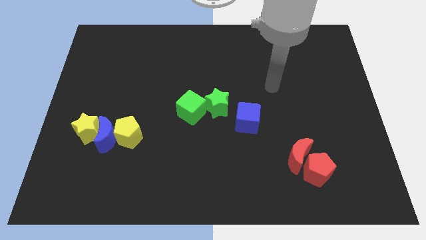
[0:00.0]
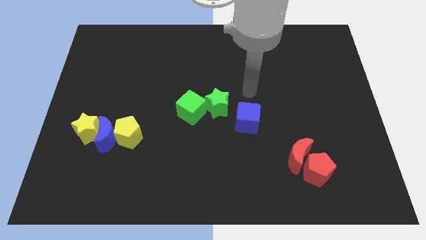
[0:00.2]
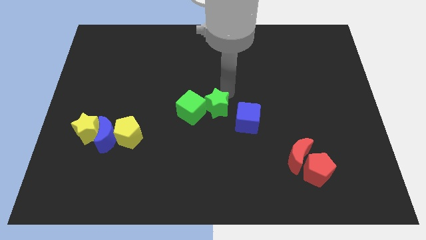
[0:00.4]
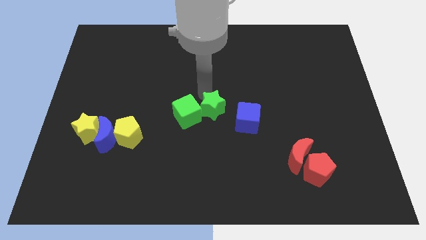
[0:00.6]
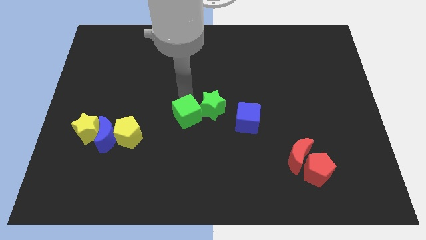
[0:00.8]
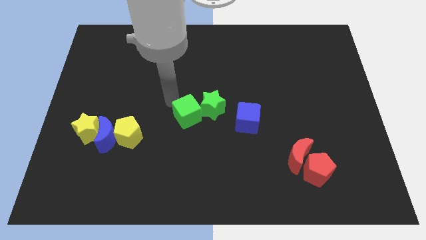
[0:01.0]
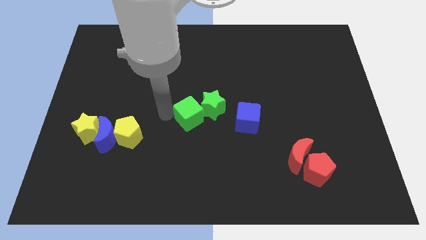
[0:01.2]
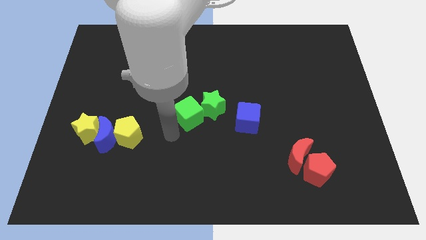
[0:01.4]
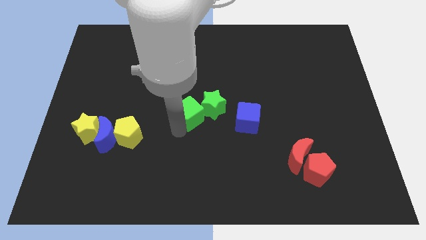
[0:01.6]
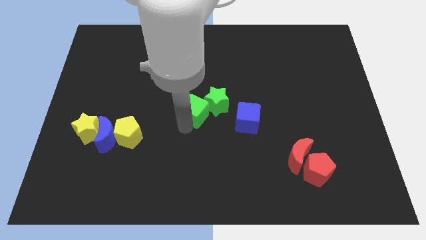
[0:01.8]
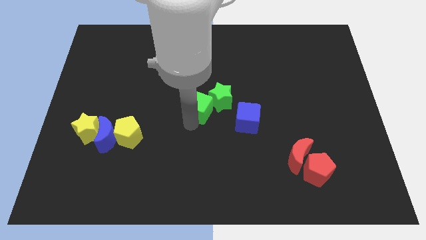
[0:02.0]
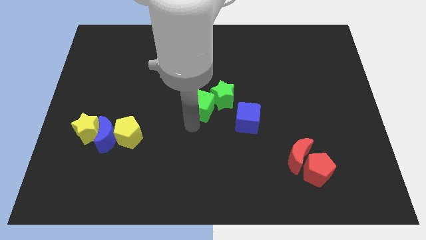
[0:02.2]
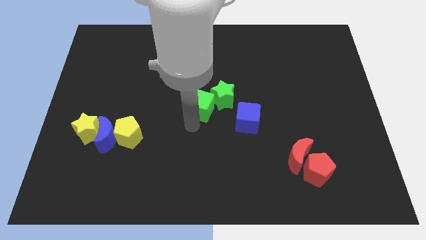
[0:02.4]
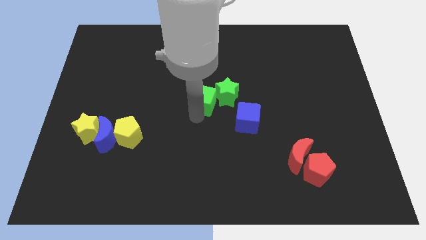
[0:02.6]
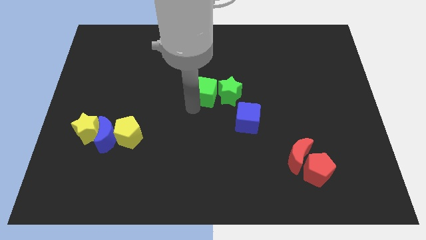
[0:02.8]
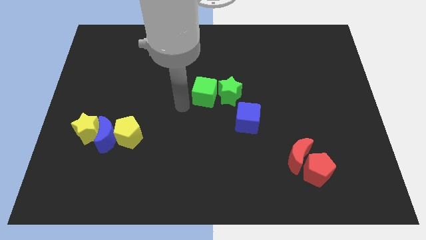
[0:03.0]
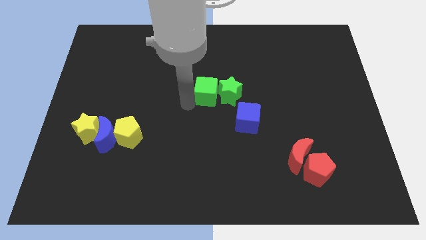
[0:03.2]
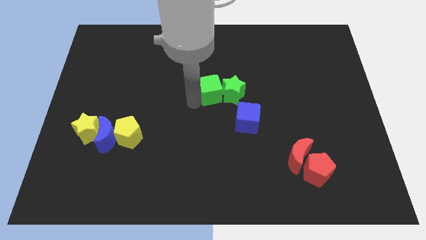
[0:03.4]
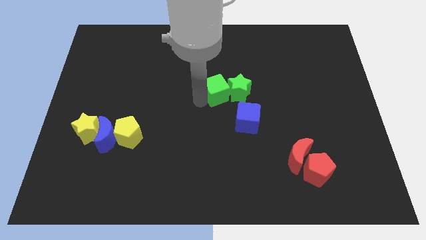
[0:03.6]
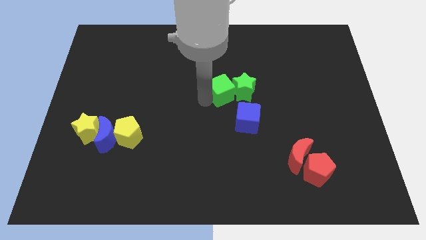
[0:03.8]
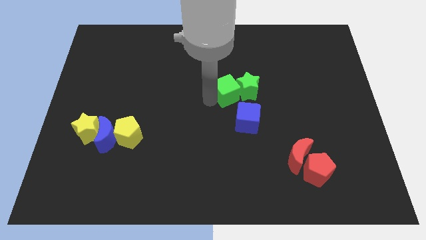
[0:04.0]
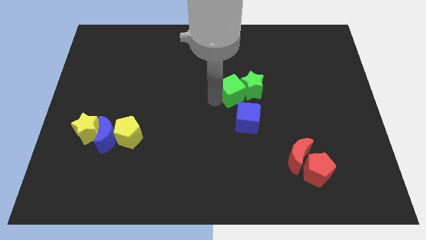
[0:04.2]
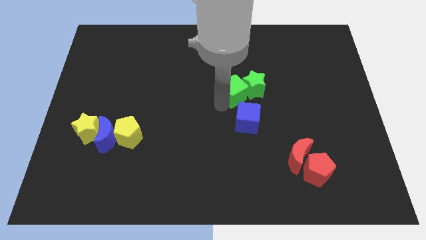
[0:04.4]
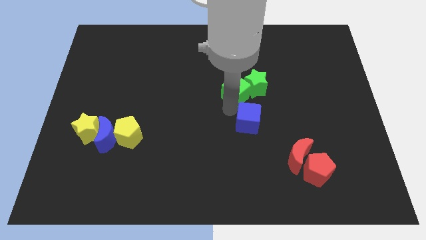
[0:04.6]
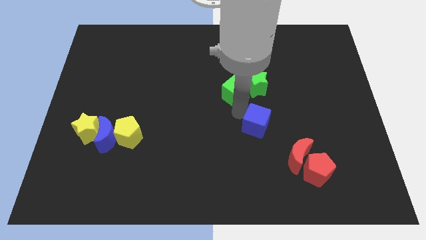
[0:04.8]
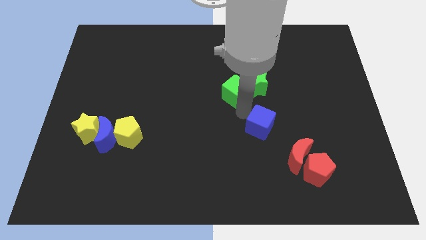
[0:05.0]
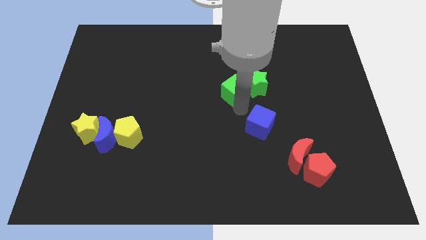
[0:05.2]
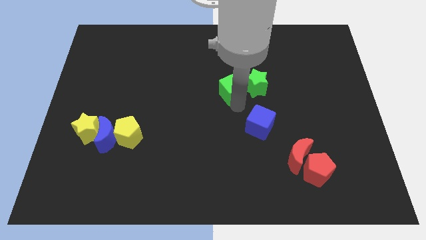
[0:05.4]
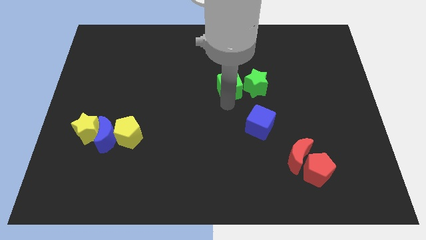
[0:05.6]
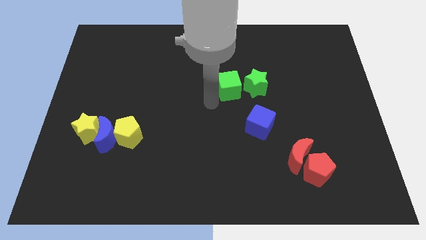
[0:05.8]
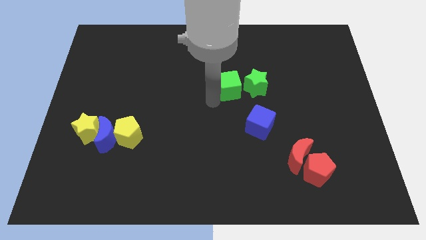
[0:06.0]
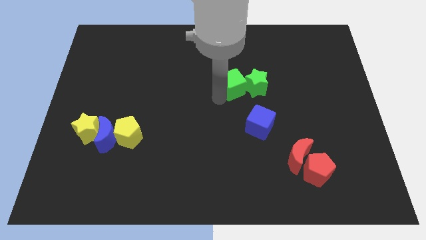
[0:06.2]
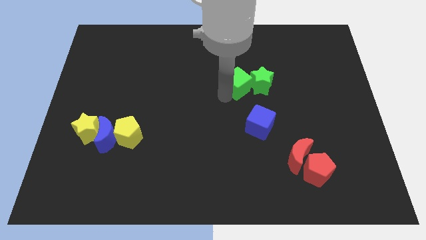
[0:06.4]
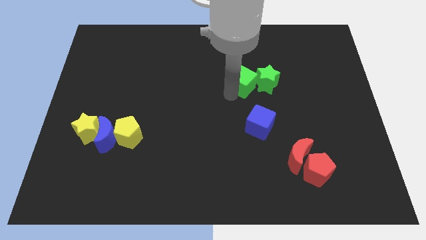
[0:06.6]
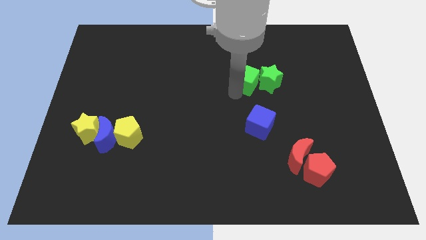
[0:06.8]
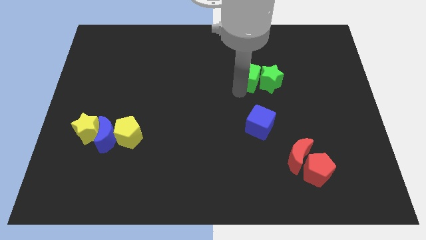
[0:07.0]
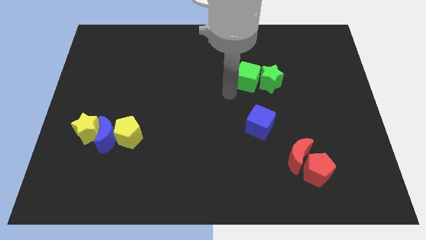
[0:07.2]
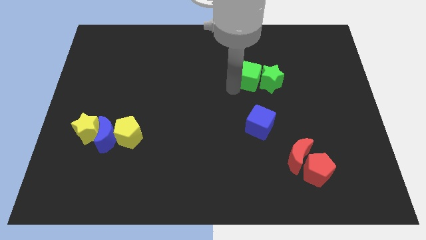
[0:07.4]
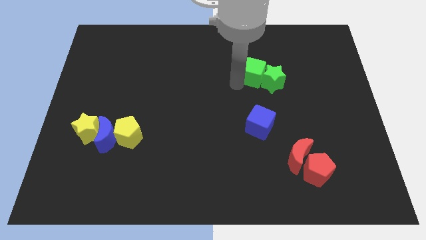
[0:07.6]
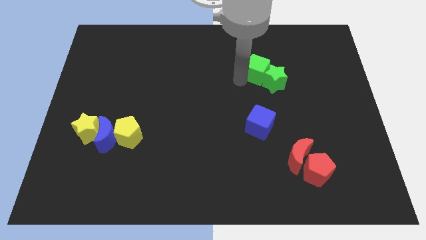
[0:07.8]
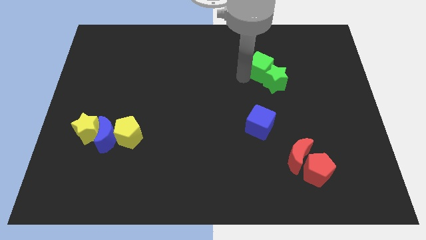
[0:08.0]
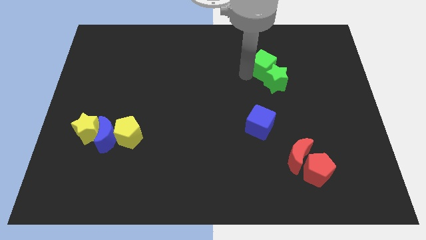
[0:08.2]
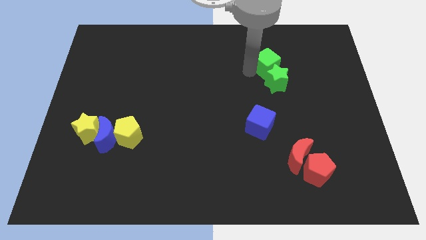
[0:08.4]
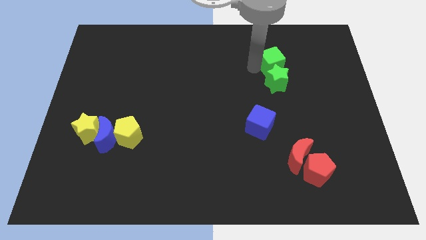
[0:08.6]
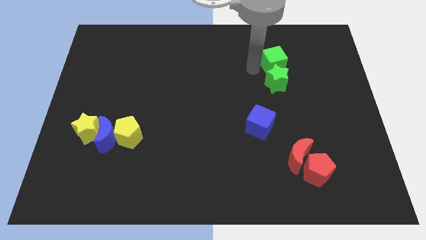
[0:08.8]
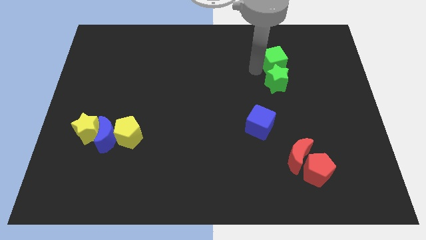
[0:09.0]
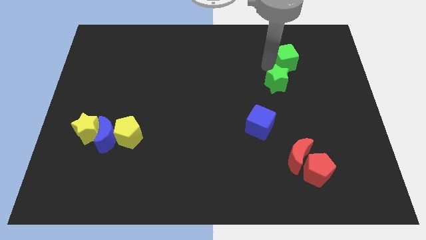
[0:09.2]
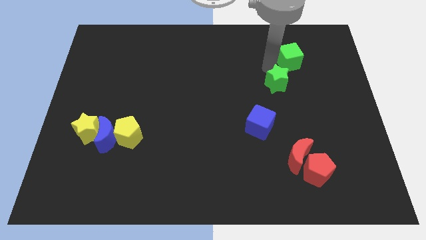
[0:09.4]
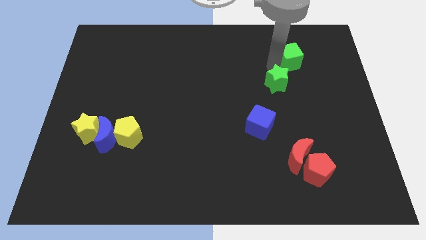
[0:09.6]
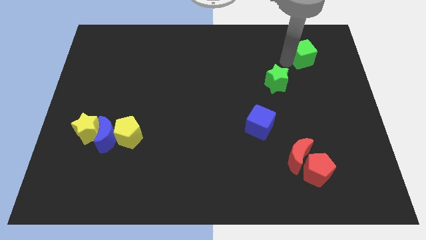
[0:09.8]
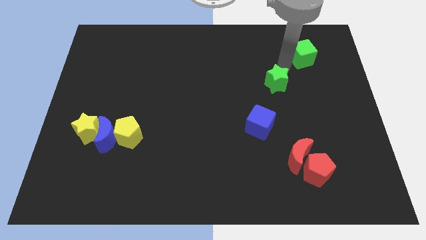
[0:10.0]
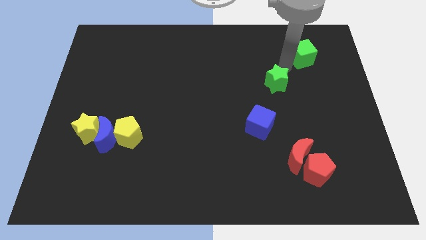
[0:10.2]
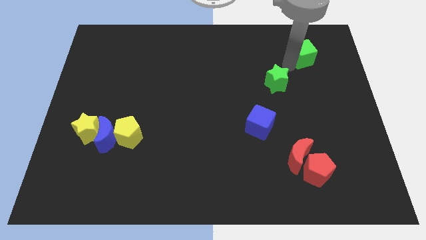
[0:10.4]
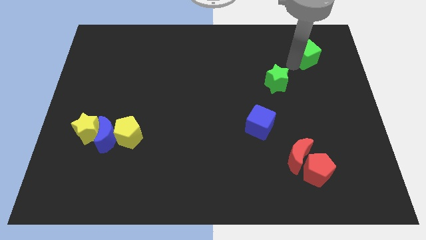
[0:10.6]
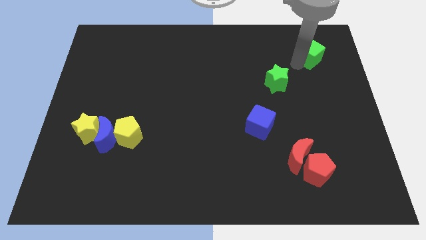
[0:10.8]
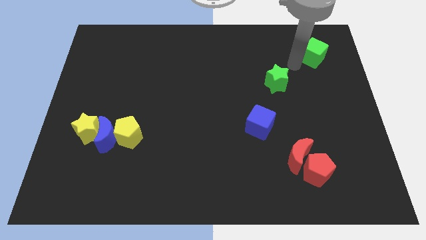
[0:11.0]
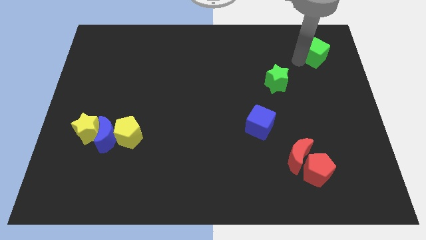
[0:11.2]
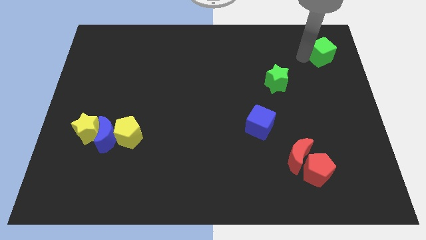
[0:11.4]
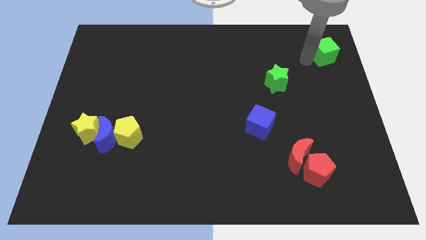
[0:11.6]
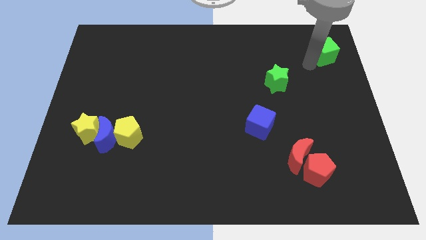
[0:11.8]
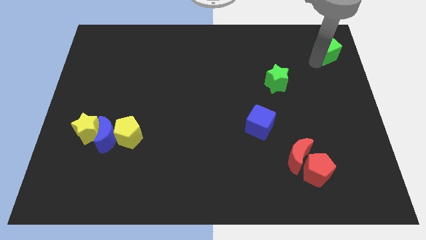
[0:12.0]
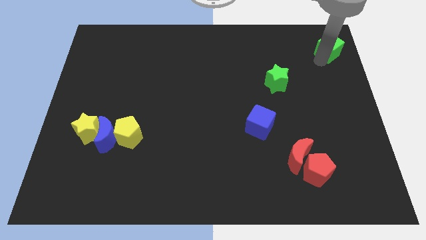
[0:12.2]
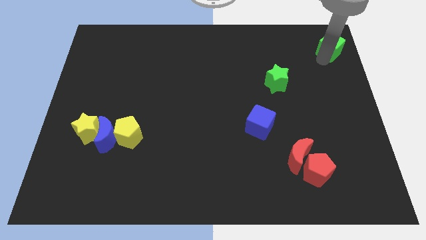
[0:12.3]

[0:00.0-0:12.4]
slide the green cube to the top right corner
